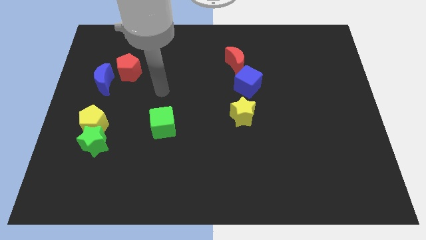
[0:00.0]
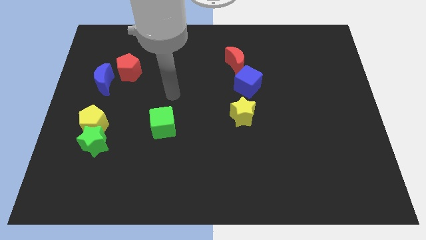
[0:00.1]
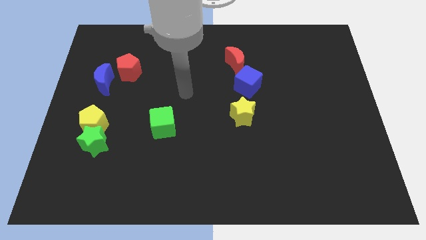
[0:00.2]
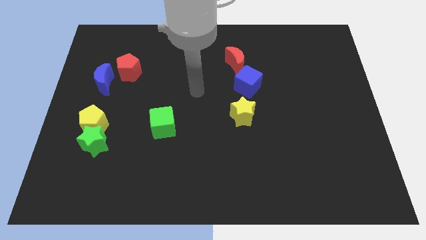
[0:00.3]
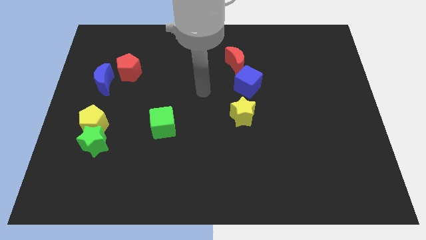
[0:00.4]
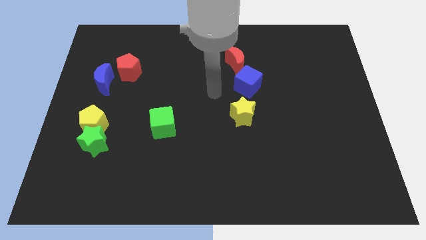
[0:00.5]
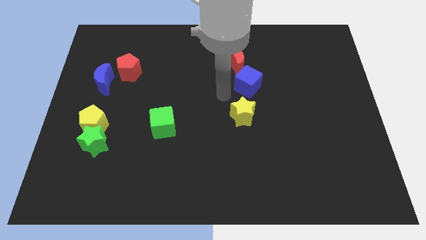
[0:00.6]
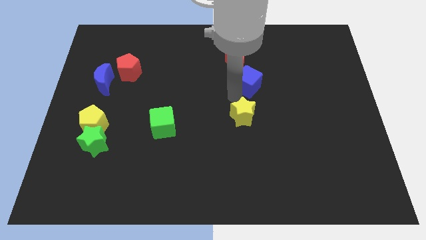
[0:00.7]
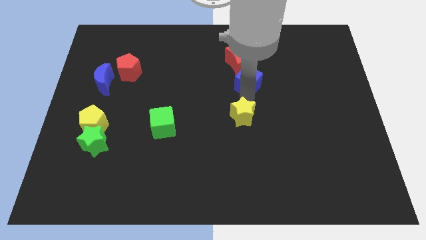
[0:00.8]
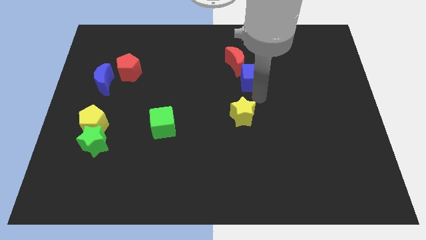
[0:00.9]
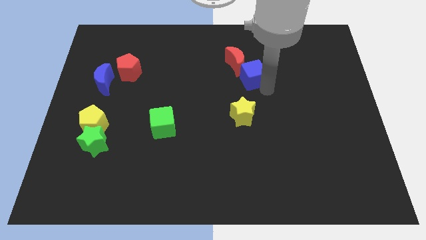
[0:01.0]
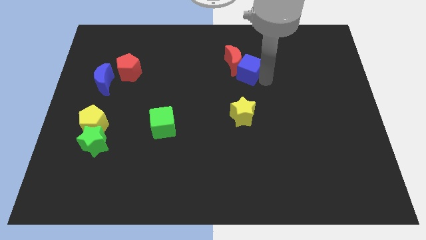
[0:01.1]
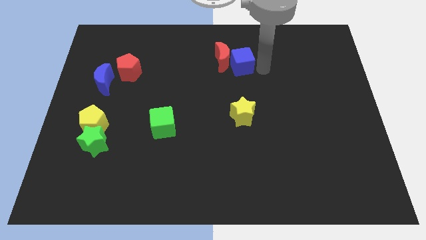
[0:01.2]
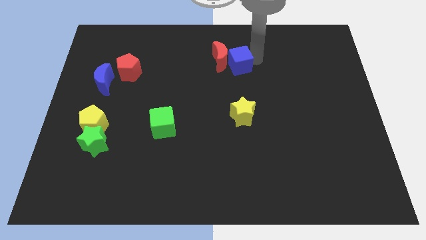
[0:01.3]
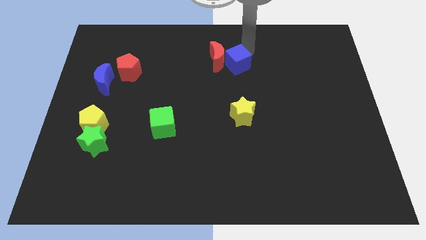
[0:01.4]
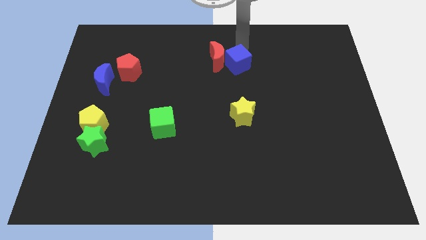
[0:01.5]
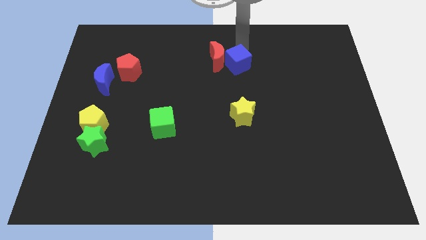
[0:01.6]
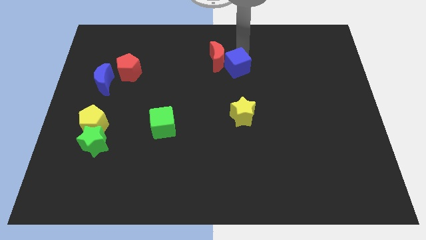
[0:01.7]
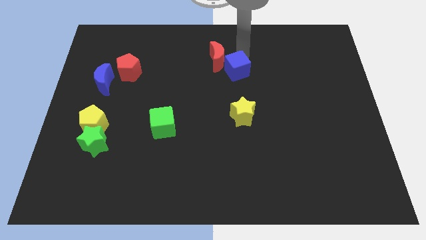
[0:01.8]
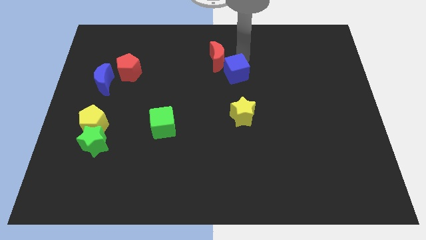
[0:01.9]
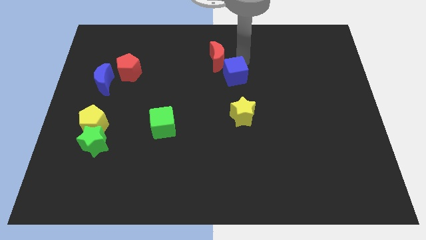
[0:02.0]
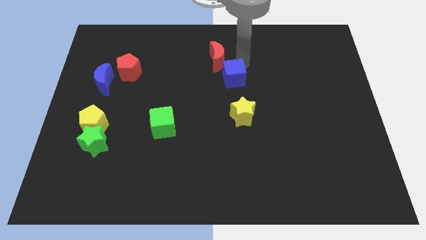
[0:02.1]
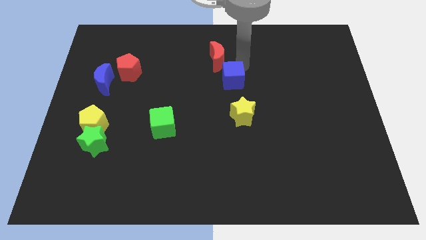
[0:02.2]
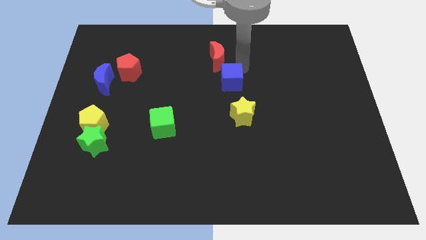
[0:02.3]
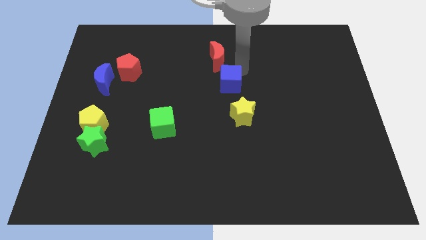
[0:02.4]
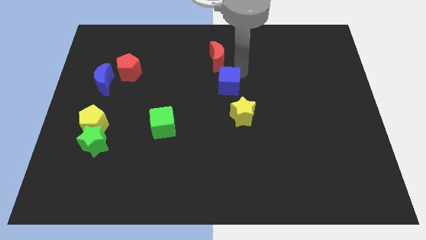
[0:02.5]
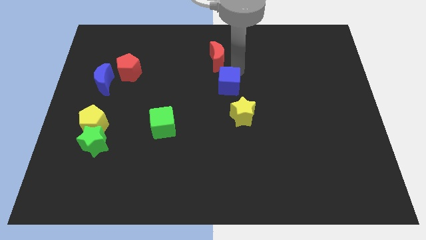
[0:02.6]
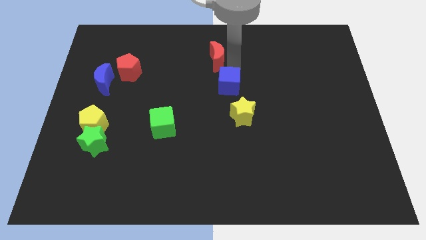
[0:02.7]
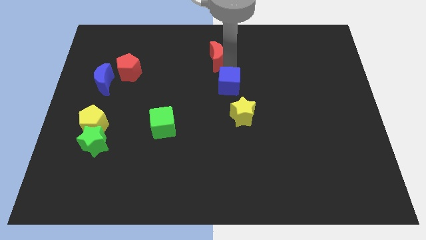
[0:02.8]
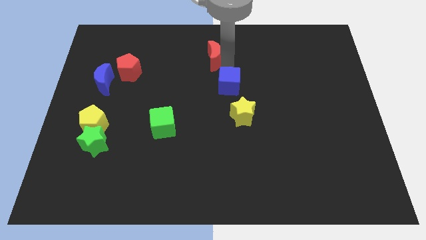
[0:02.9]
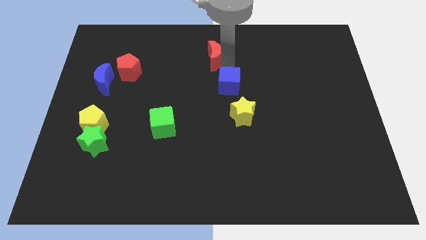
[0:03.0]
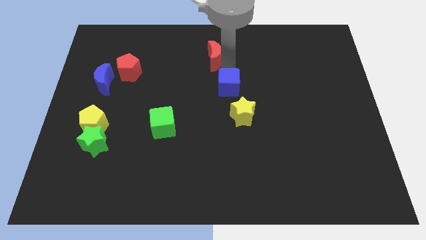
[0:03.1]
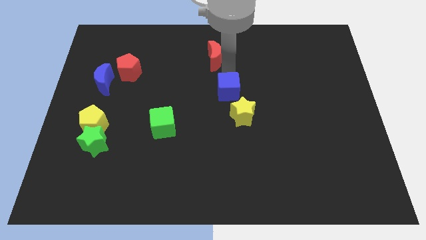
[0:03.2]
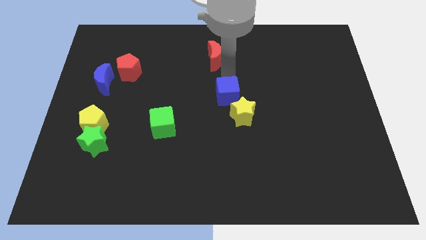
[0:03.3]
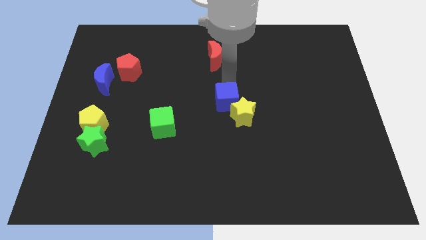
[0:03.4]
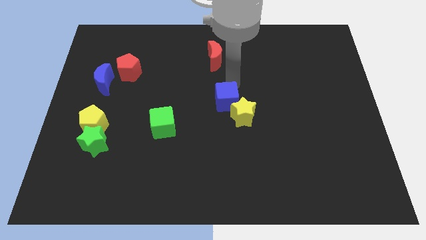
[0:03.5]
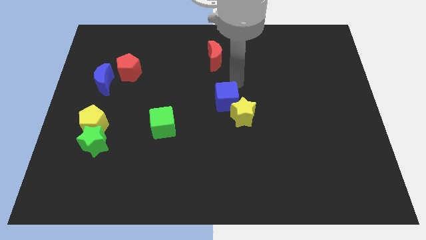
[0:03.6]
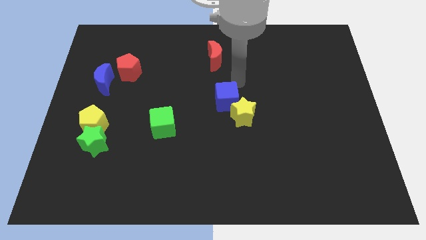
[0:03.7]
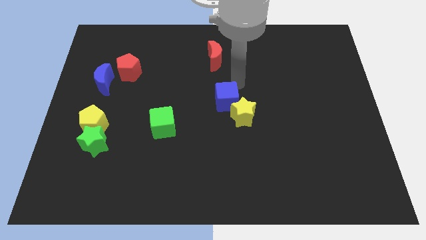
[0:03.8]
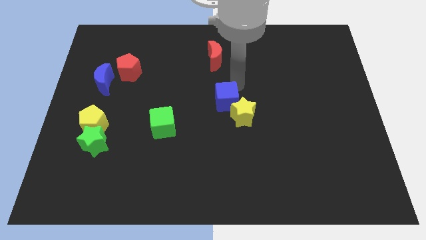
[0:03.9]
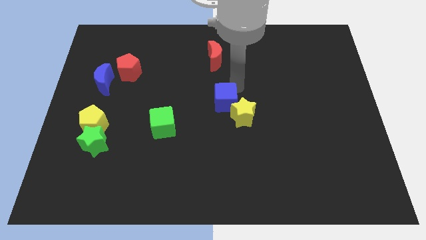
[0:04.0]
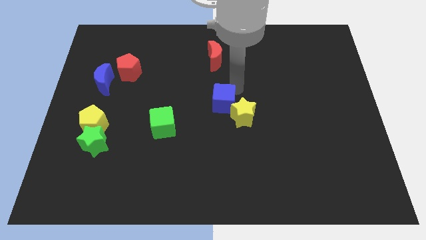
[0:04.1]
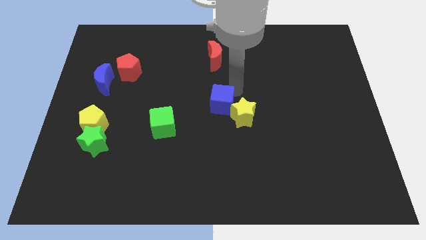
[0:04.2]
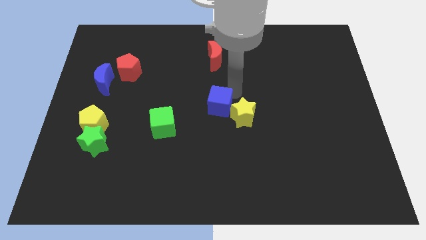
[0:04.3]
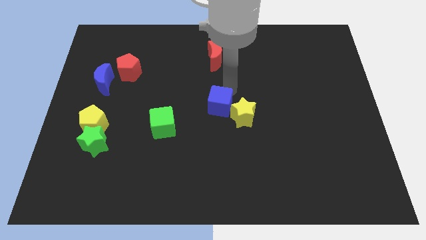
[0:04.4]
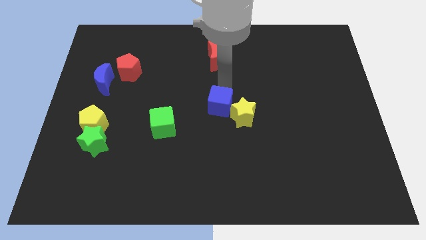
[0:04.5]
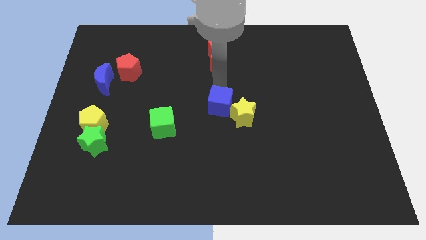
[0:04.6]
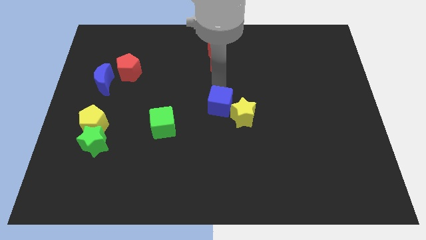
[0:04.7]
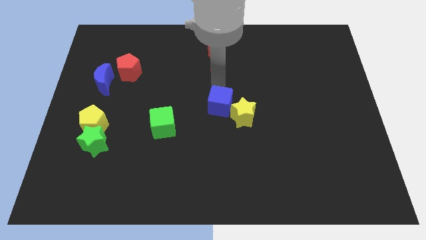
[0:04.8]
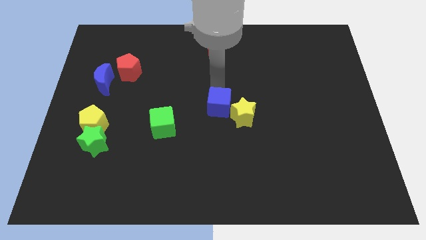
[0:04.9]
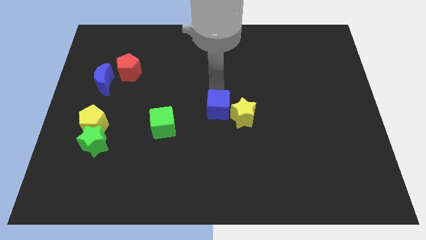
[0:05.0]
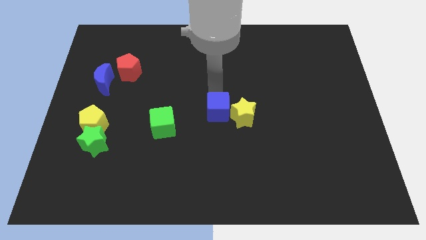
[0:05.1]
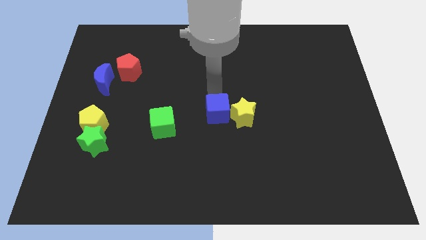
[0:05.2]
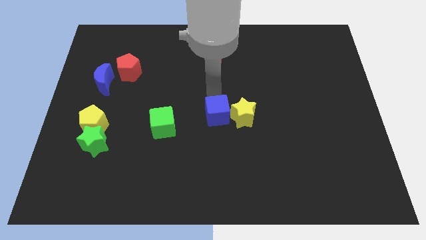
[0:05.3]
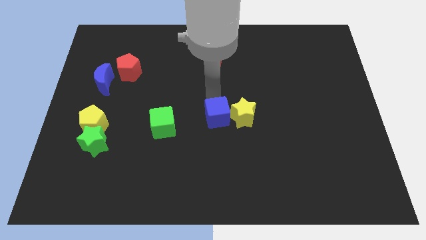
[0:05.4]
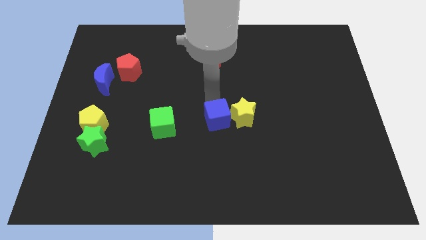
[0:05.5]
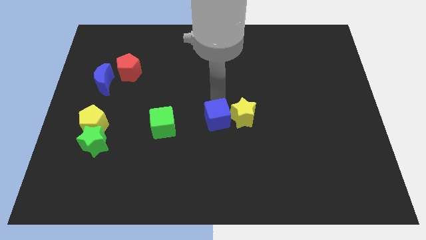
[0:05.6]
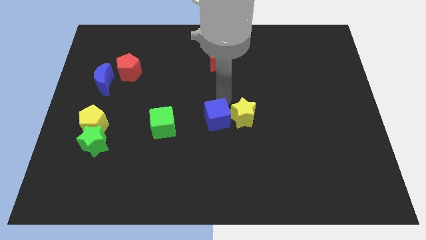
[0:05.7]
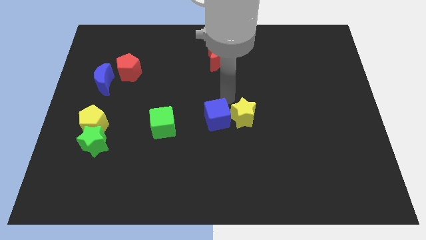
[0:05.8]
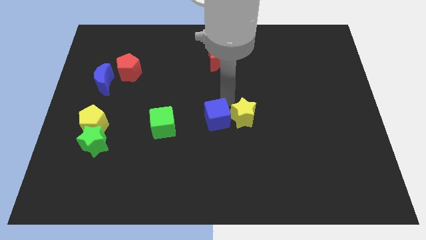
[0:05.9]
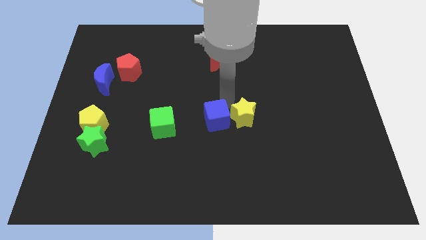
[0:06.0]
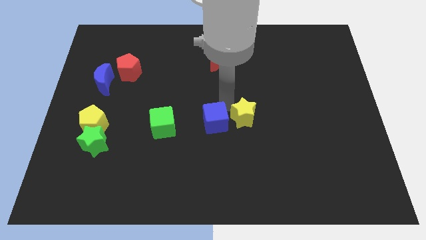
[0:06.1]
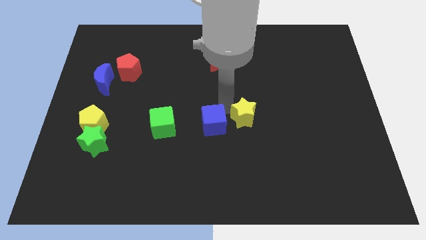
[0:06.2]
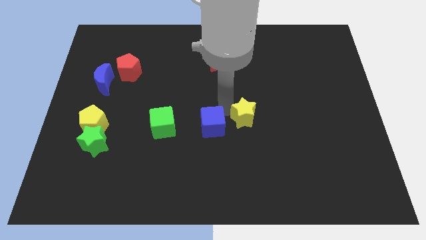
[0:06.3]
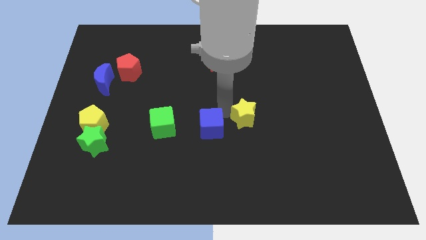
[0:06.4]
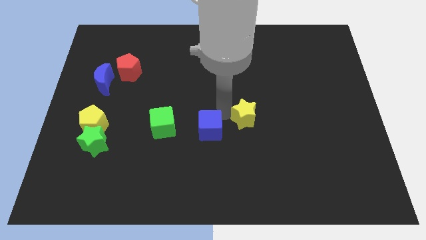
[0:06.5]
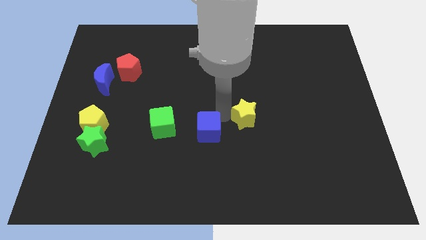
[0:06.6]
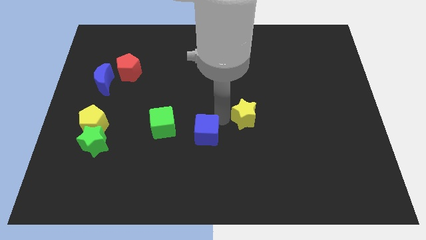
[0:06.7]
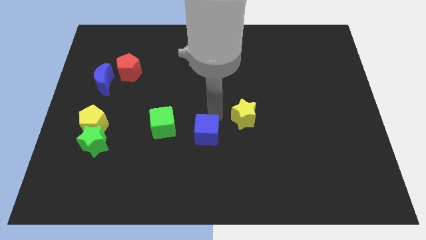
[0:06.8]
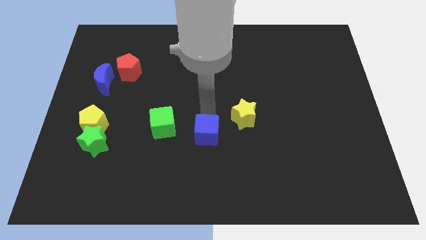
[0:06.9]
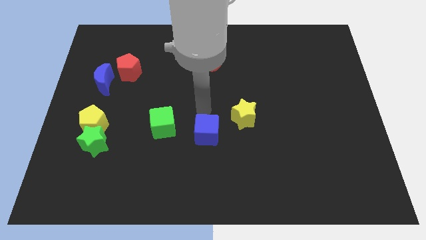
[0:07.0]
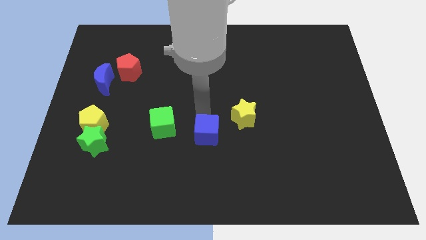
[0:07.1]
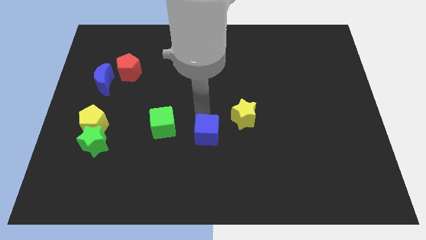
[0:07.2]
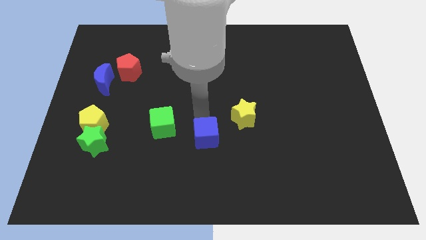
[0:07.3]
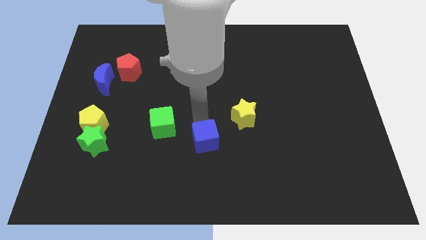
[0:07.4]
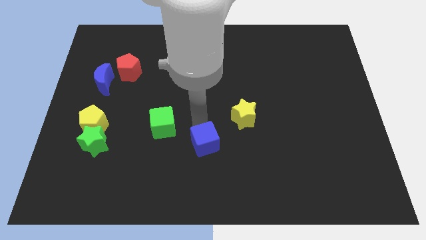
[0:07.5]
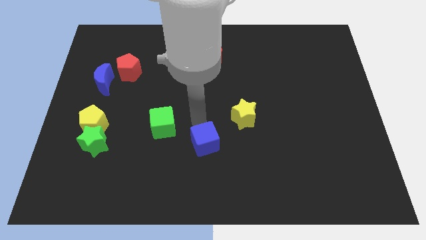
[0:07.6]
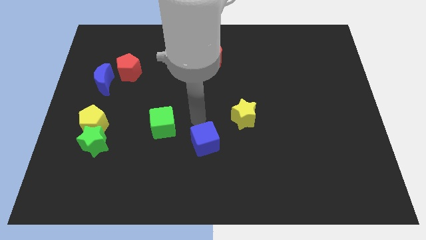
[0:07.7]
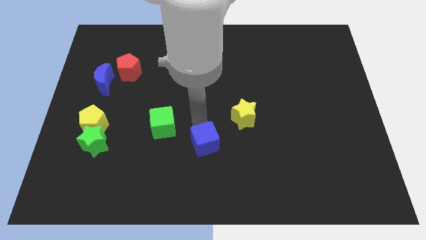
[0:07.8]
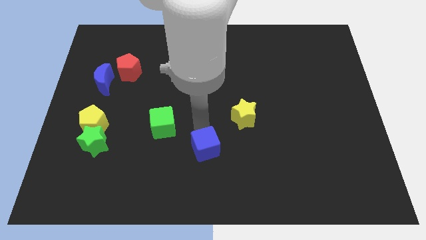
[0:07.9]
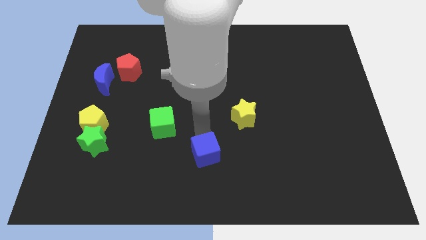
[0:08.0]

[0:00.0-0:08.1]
push the blue cube to the bottom
